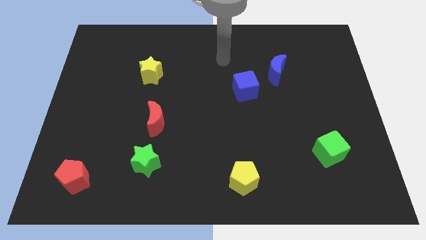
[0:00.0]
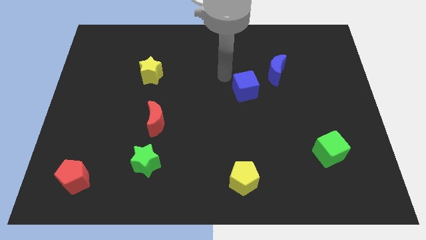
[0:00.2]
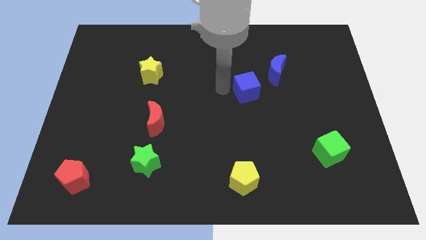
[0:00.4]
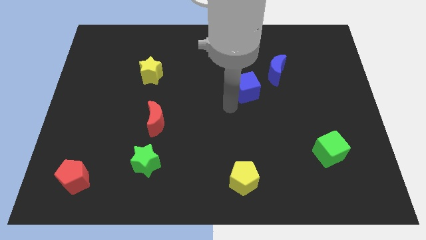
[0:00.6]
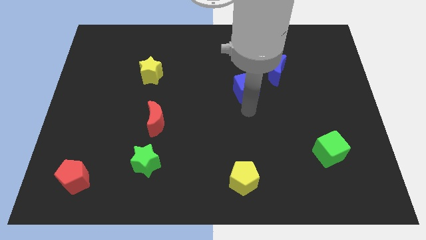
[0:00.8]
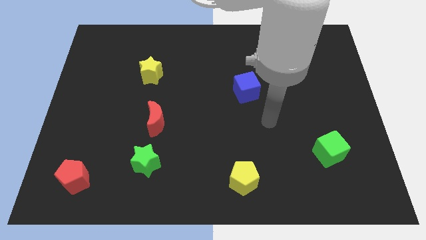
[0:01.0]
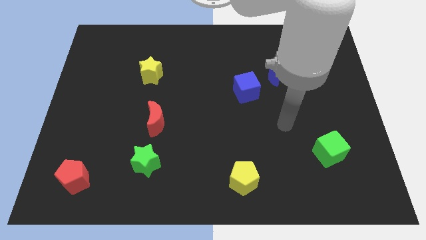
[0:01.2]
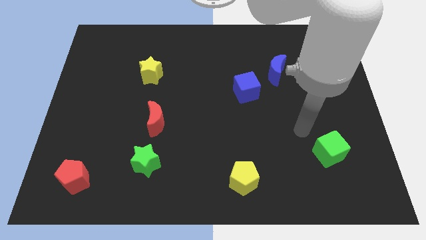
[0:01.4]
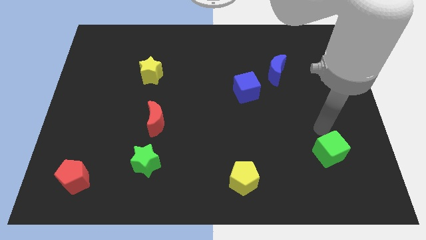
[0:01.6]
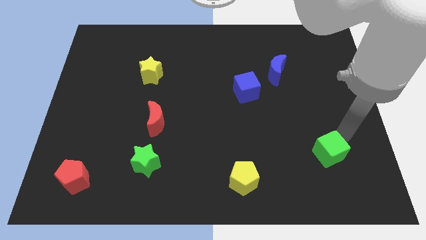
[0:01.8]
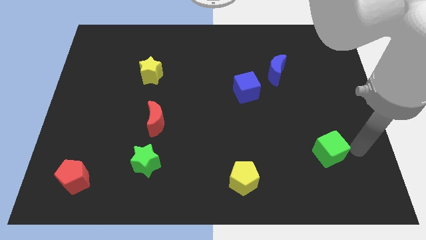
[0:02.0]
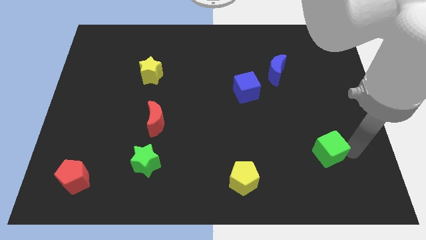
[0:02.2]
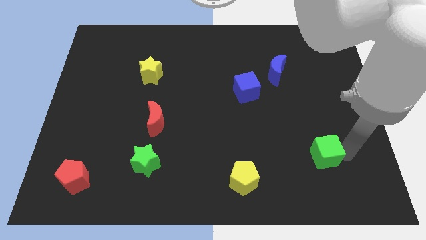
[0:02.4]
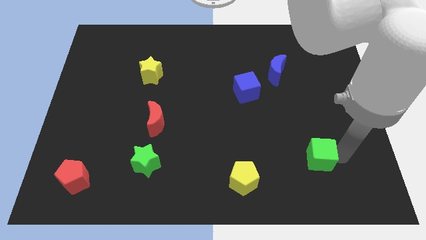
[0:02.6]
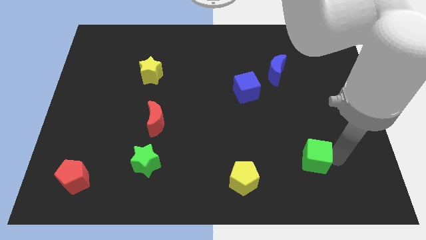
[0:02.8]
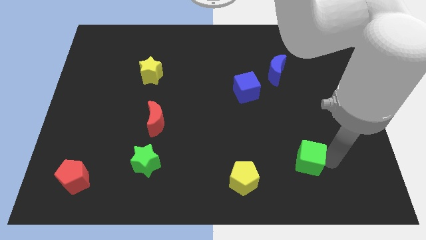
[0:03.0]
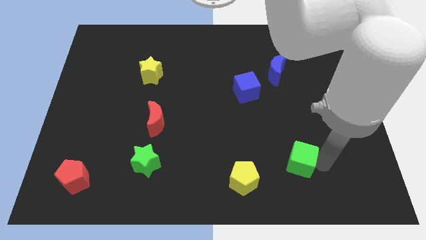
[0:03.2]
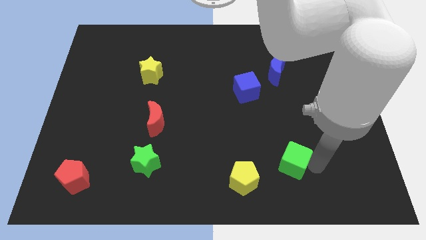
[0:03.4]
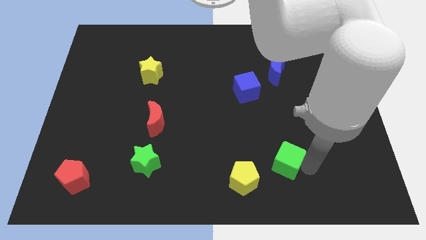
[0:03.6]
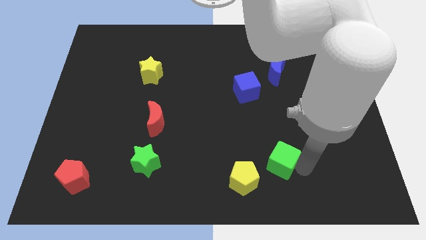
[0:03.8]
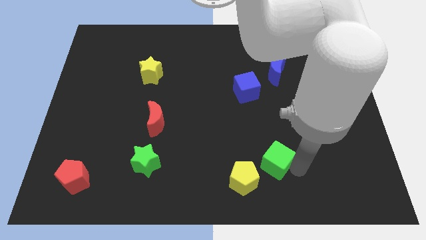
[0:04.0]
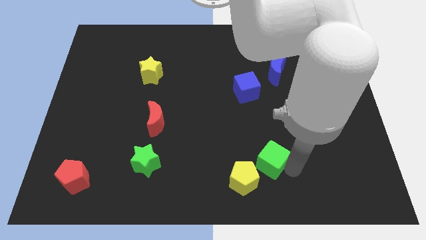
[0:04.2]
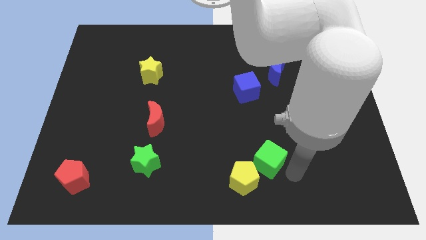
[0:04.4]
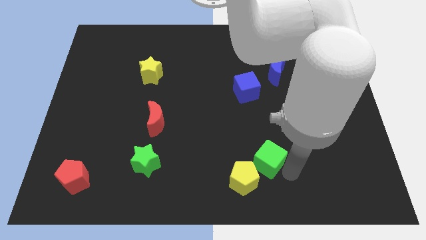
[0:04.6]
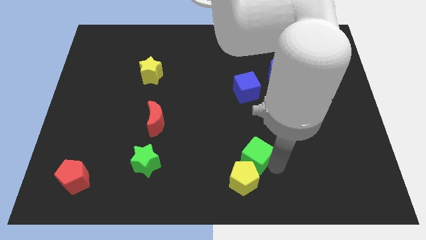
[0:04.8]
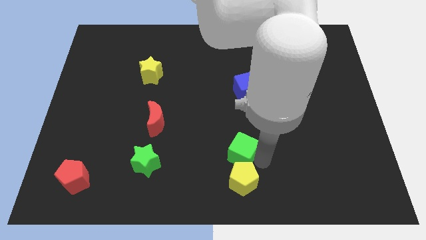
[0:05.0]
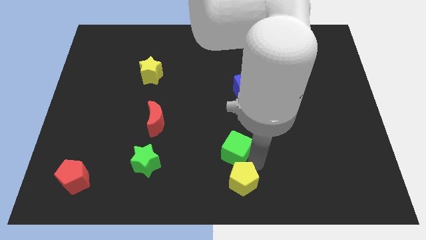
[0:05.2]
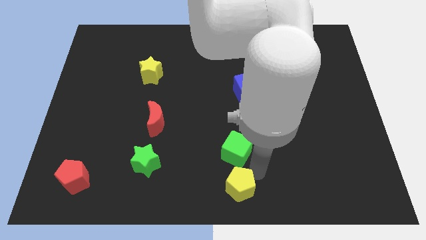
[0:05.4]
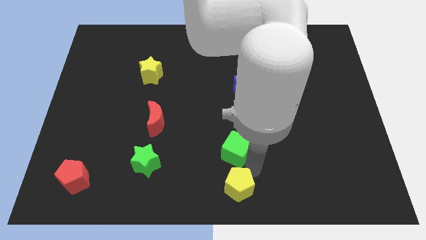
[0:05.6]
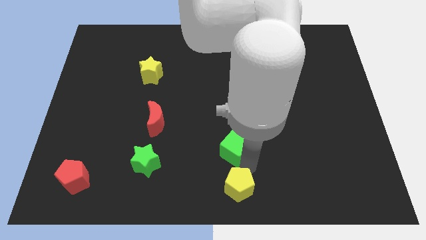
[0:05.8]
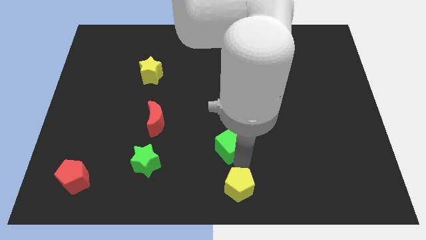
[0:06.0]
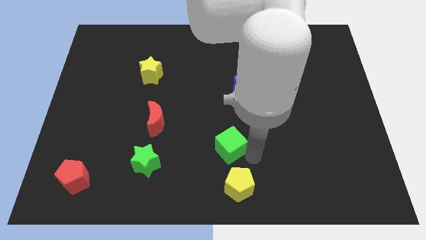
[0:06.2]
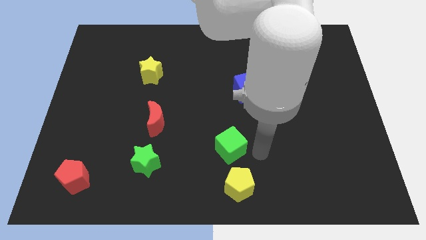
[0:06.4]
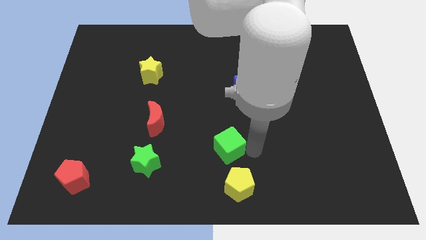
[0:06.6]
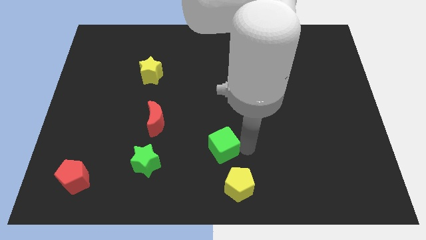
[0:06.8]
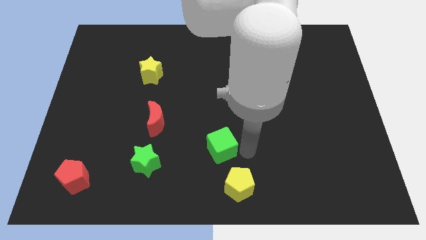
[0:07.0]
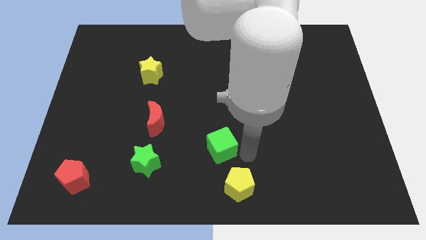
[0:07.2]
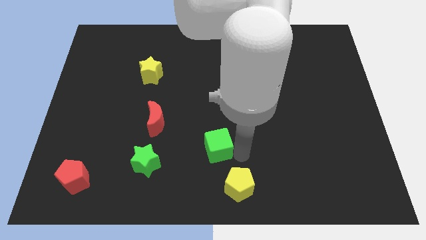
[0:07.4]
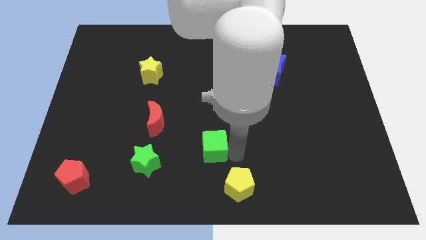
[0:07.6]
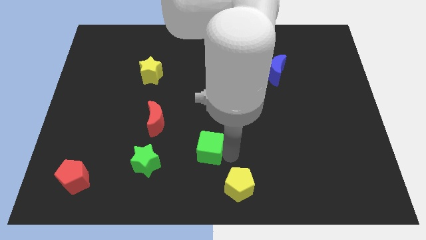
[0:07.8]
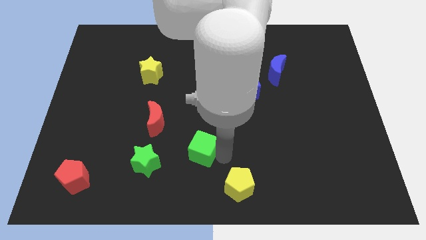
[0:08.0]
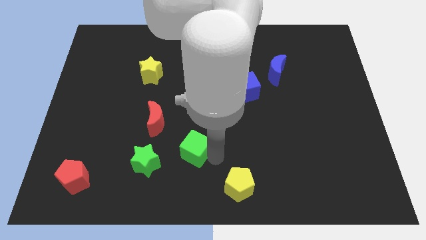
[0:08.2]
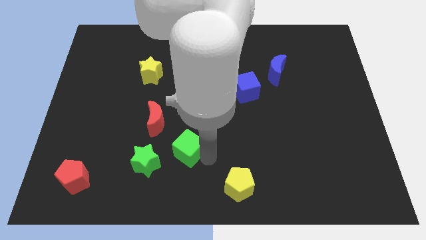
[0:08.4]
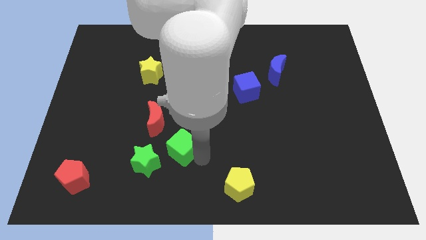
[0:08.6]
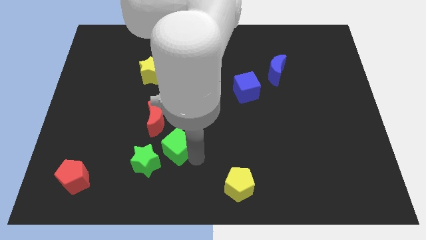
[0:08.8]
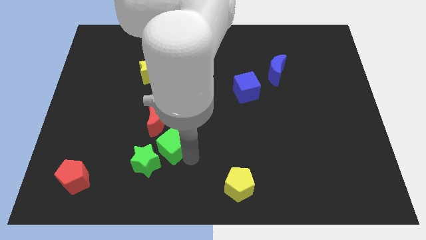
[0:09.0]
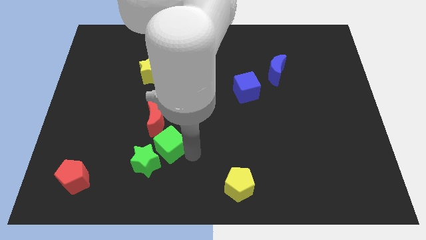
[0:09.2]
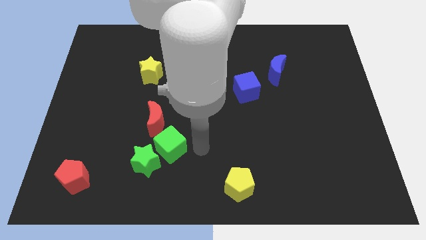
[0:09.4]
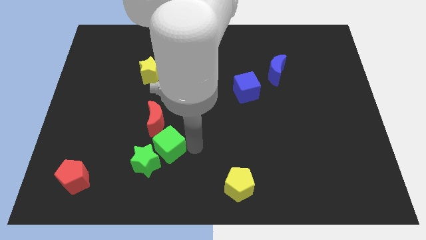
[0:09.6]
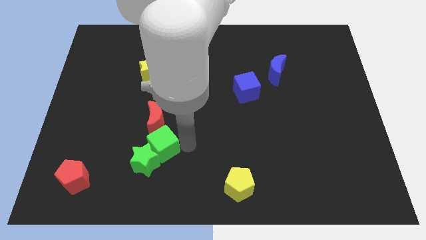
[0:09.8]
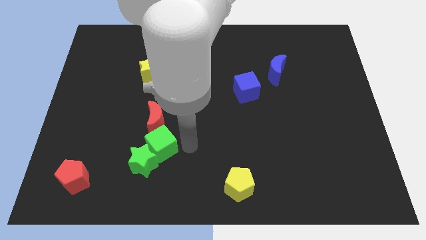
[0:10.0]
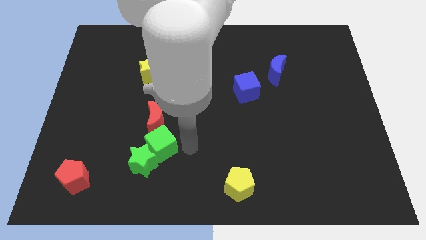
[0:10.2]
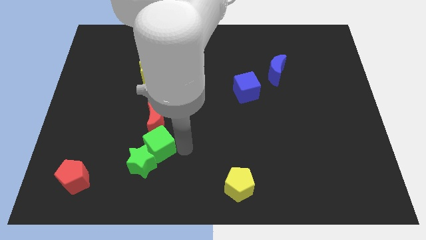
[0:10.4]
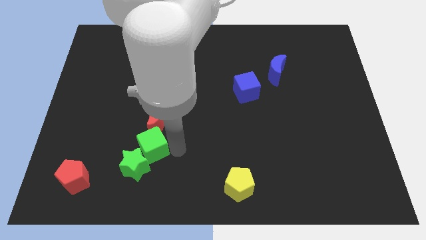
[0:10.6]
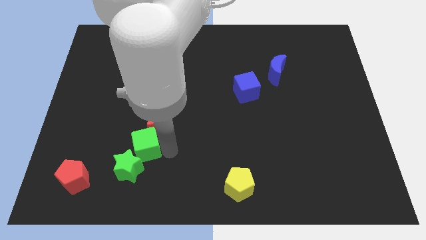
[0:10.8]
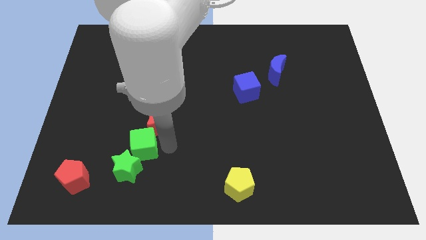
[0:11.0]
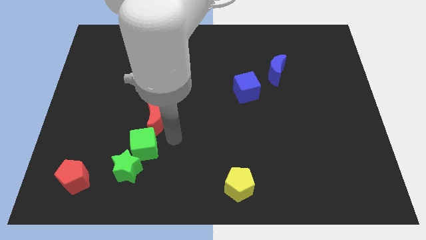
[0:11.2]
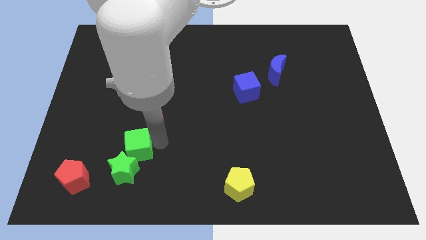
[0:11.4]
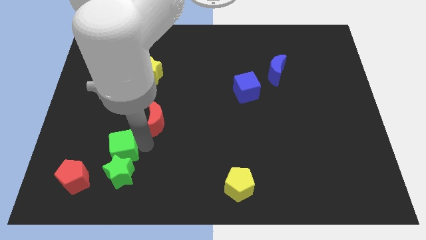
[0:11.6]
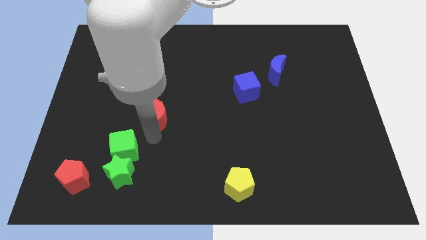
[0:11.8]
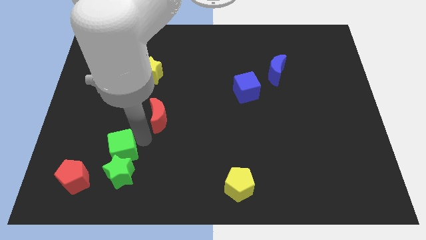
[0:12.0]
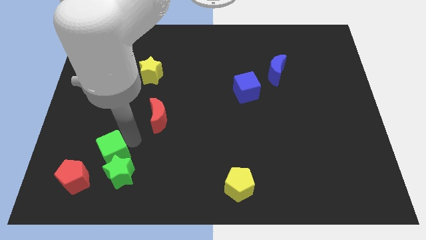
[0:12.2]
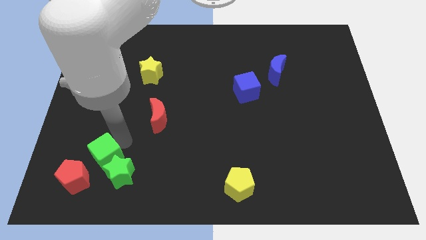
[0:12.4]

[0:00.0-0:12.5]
push the green cube just left of the green star

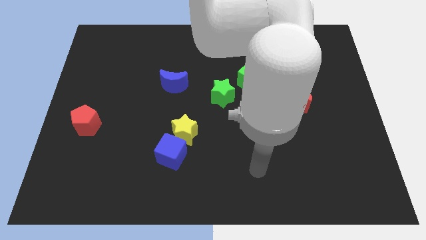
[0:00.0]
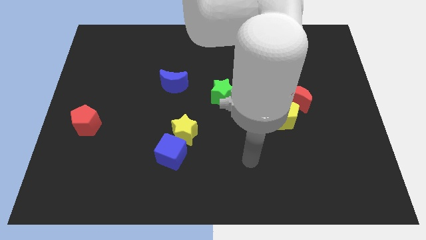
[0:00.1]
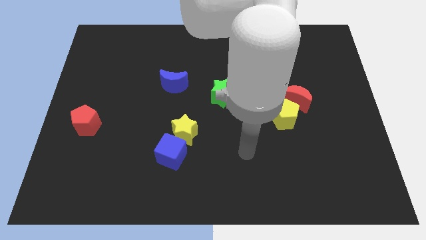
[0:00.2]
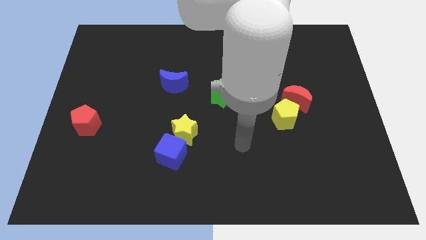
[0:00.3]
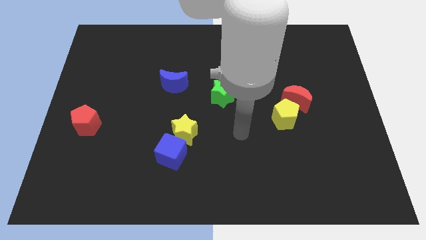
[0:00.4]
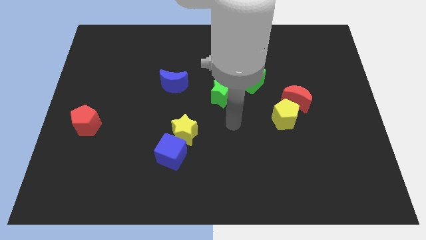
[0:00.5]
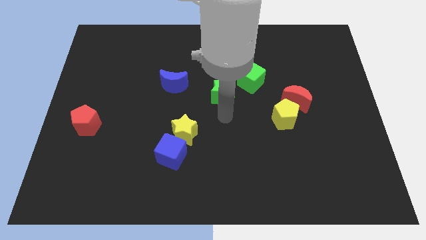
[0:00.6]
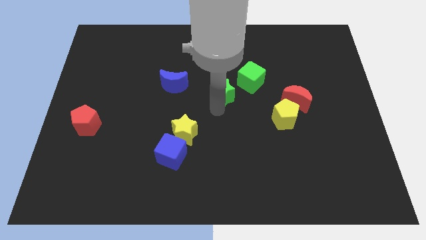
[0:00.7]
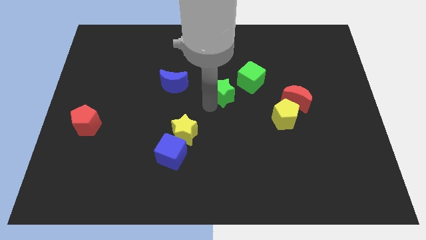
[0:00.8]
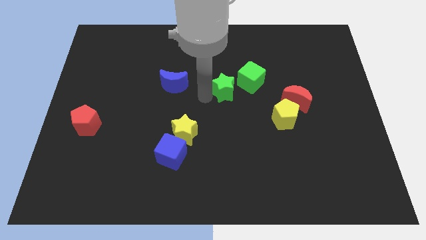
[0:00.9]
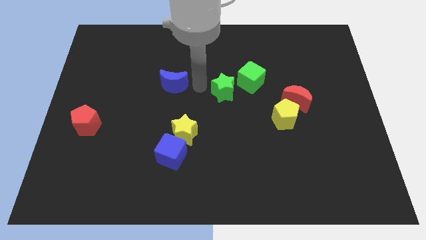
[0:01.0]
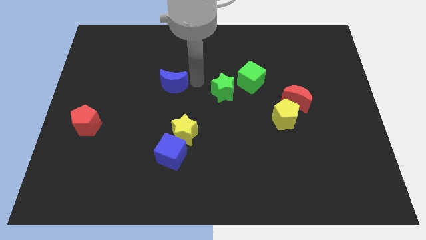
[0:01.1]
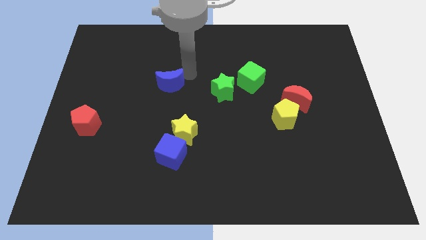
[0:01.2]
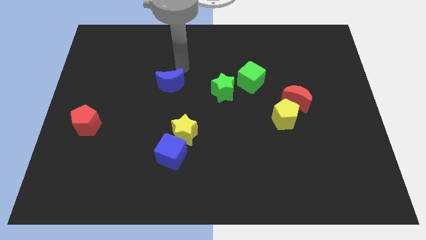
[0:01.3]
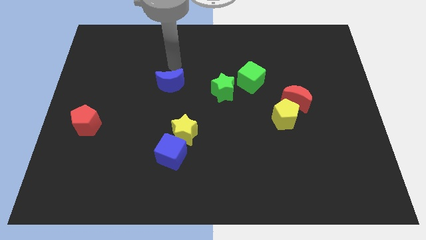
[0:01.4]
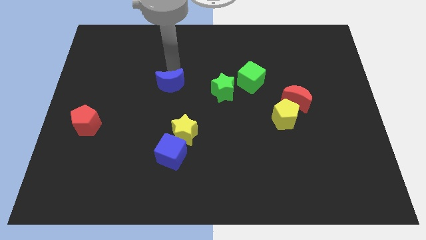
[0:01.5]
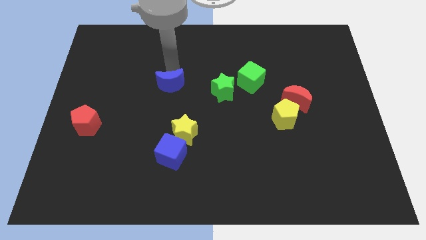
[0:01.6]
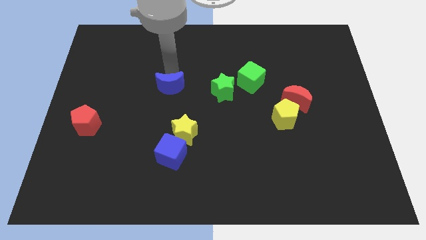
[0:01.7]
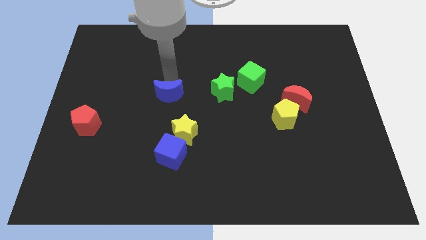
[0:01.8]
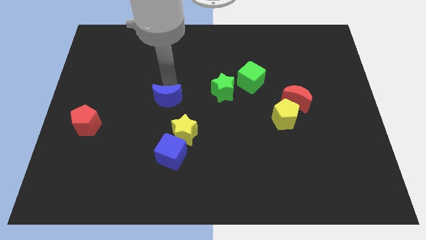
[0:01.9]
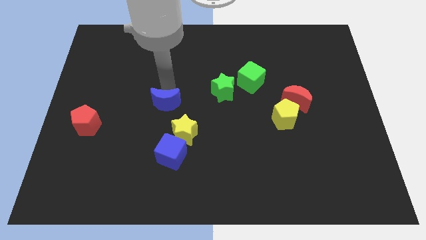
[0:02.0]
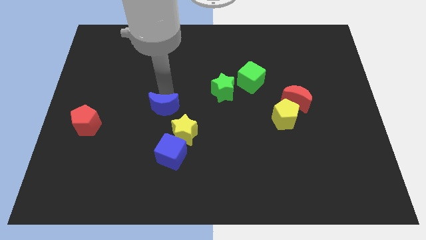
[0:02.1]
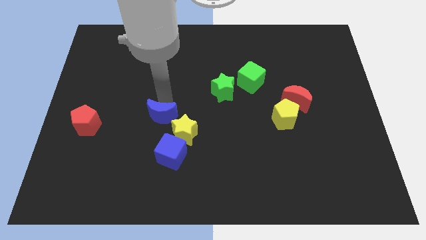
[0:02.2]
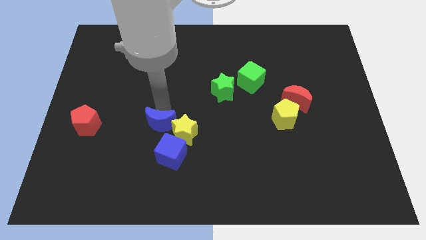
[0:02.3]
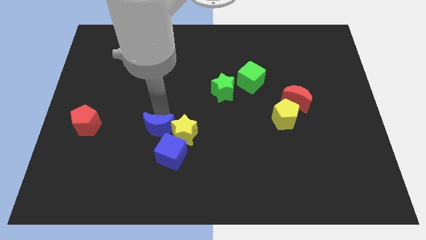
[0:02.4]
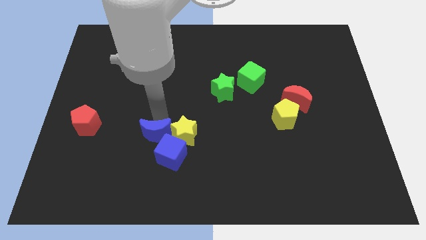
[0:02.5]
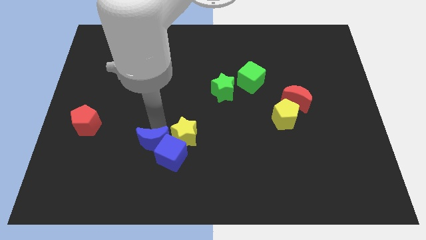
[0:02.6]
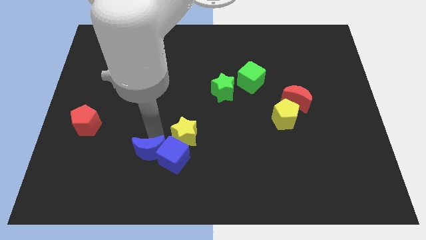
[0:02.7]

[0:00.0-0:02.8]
slide the blue moon to the bottom left side of the blue cube
